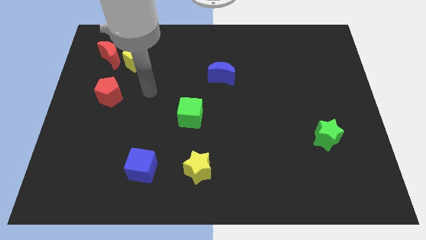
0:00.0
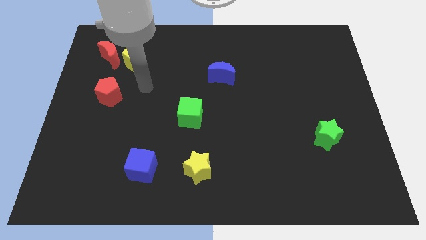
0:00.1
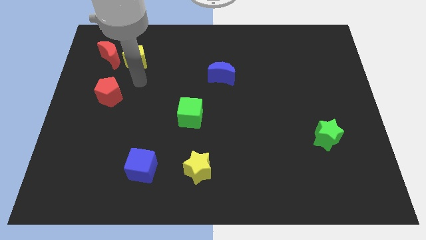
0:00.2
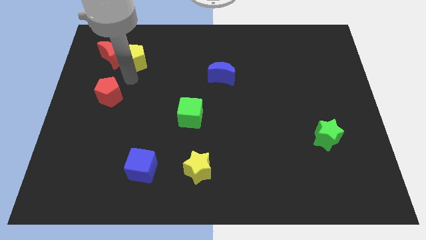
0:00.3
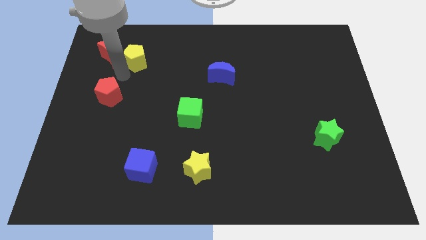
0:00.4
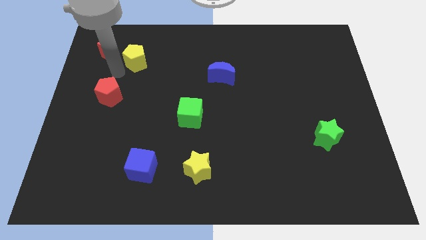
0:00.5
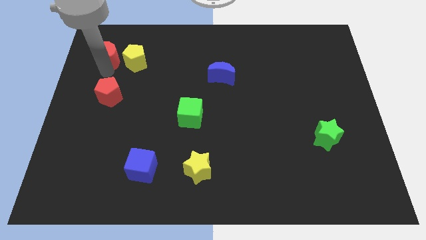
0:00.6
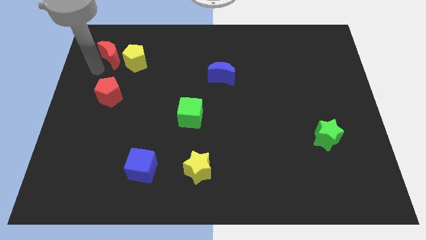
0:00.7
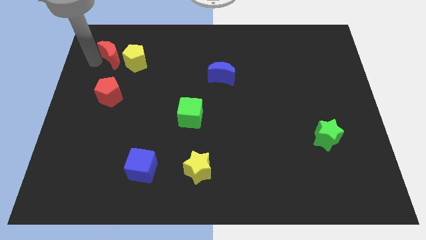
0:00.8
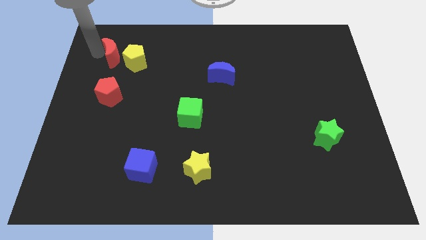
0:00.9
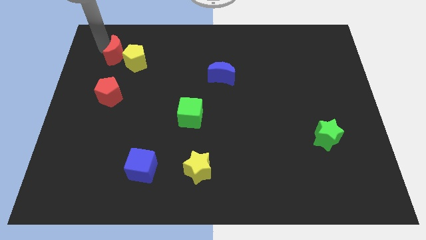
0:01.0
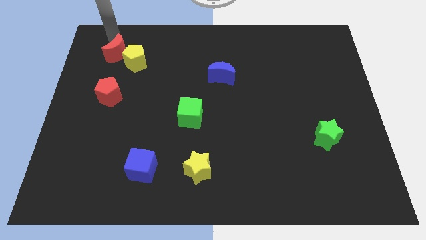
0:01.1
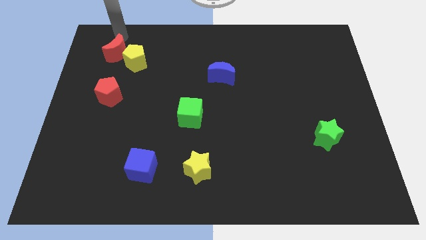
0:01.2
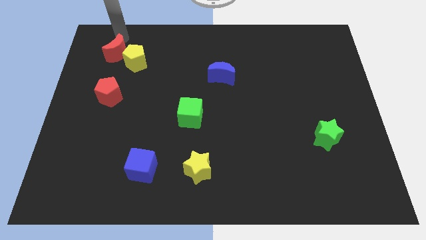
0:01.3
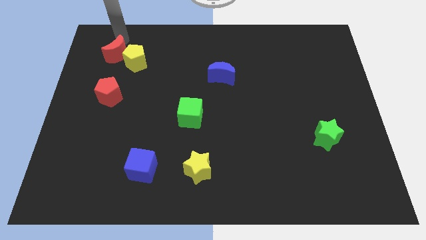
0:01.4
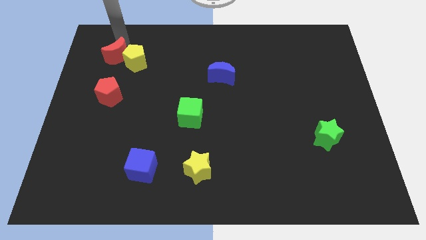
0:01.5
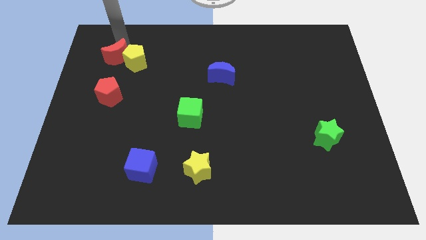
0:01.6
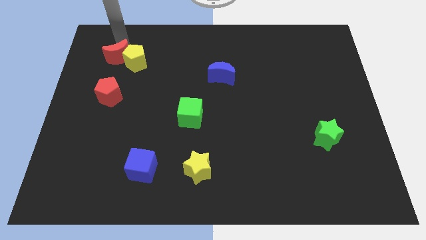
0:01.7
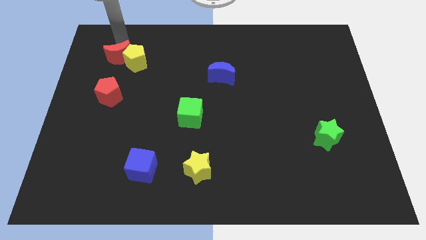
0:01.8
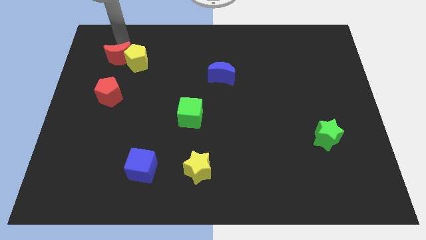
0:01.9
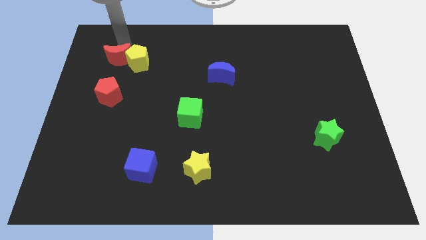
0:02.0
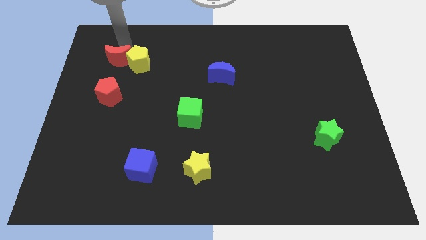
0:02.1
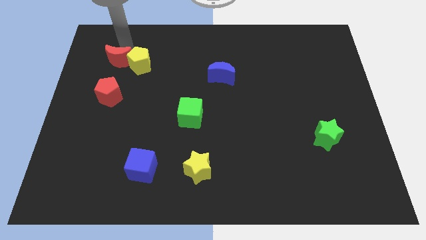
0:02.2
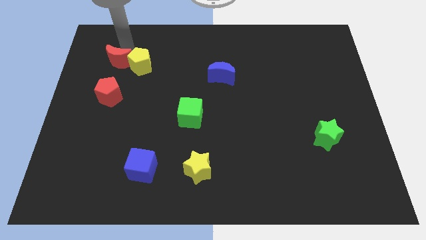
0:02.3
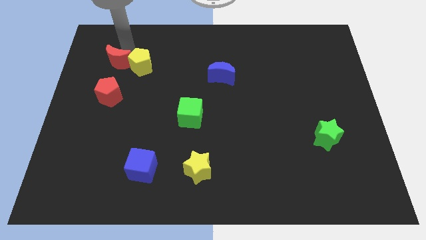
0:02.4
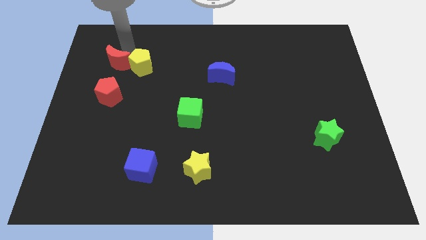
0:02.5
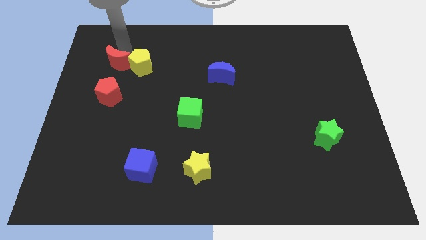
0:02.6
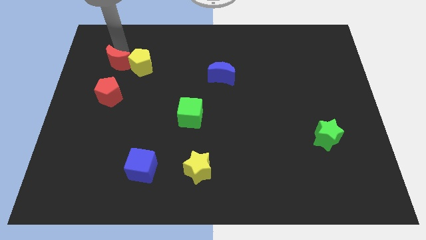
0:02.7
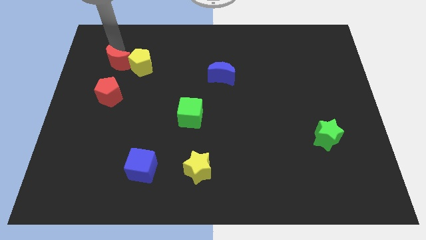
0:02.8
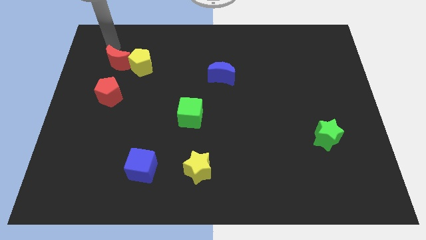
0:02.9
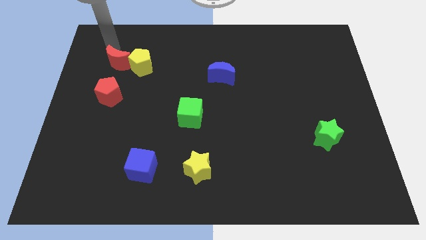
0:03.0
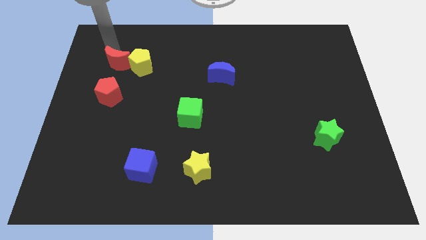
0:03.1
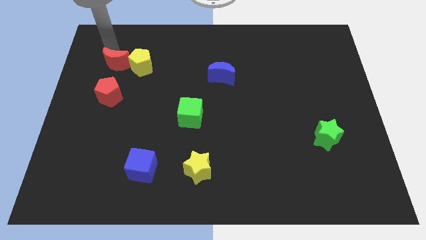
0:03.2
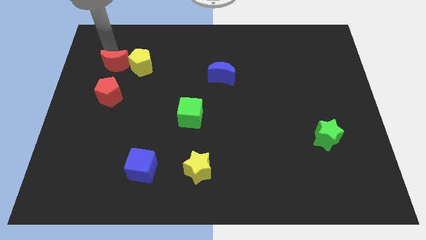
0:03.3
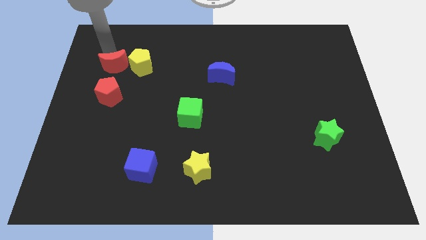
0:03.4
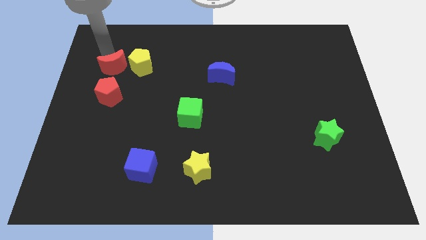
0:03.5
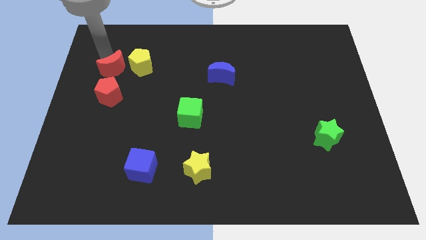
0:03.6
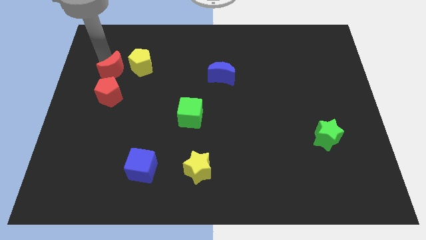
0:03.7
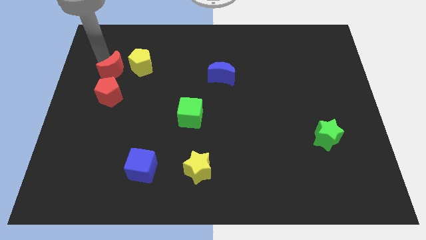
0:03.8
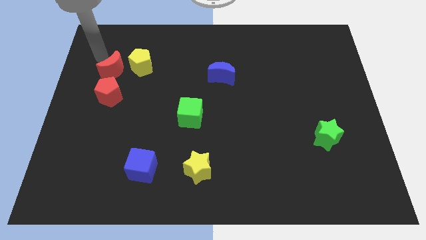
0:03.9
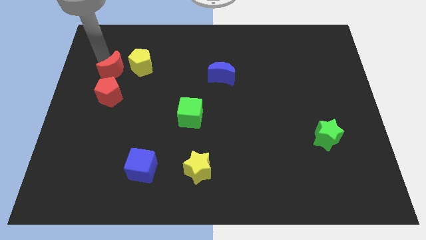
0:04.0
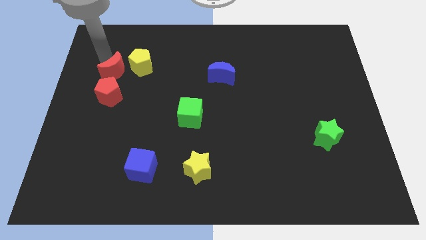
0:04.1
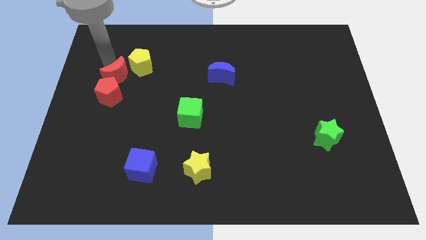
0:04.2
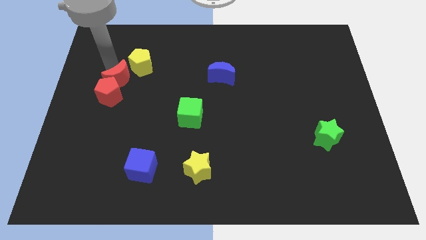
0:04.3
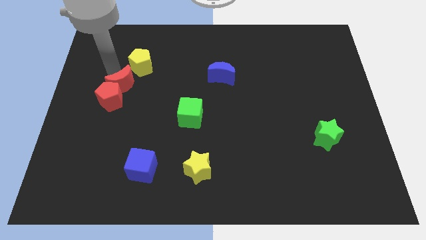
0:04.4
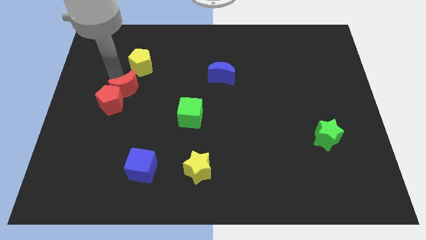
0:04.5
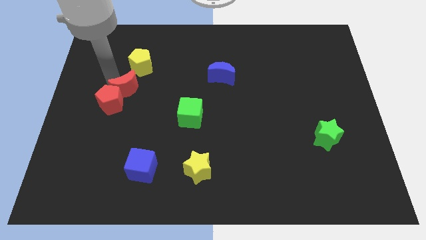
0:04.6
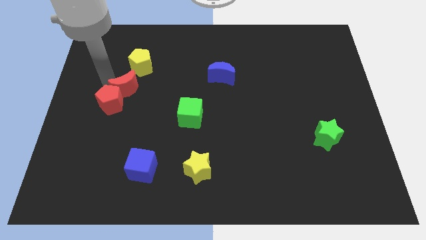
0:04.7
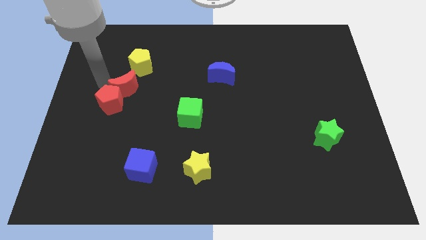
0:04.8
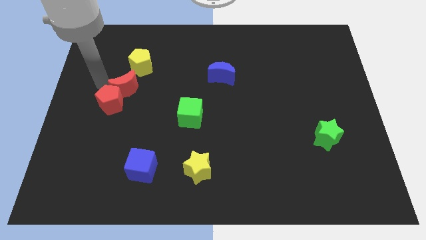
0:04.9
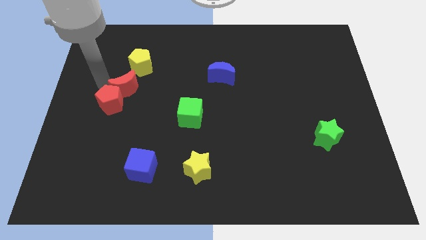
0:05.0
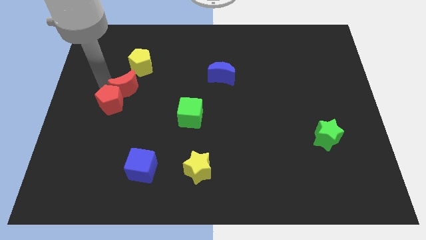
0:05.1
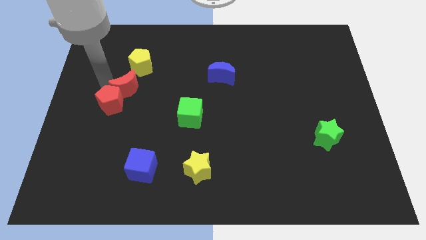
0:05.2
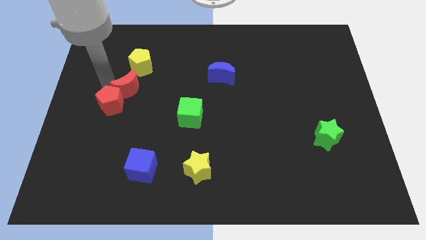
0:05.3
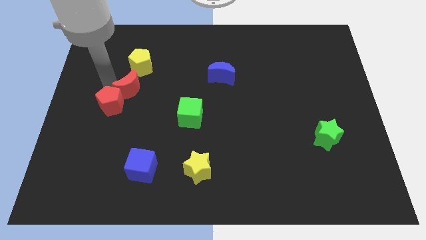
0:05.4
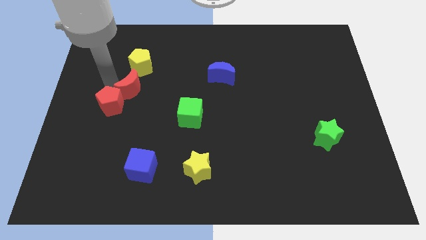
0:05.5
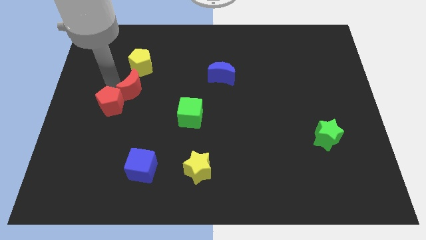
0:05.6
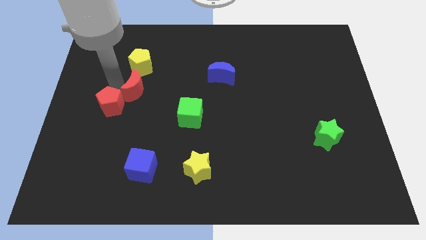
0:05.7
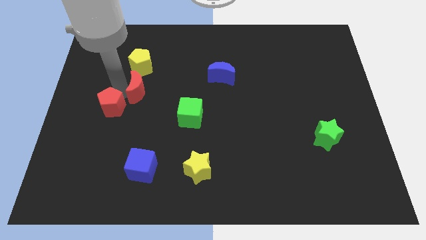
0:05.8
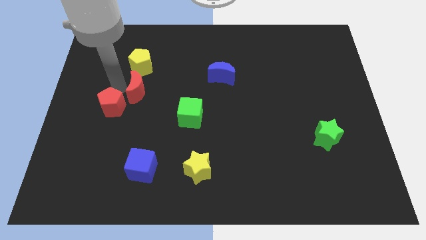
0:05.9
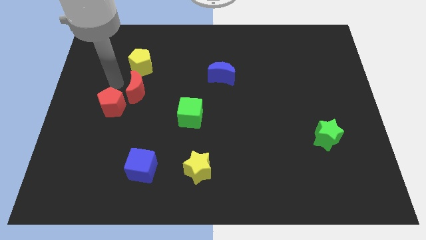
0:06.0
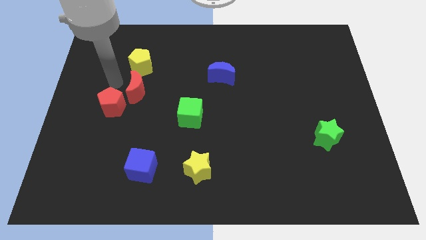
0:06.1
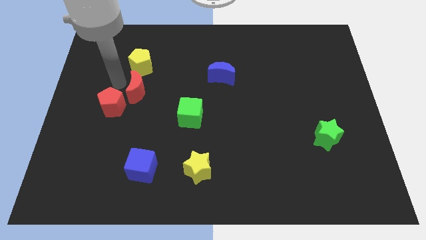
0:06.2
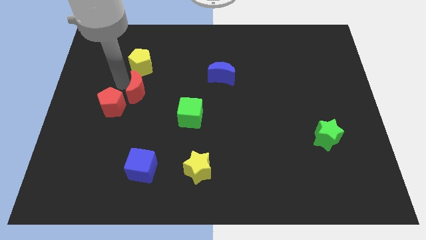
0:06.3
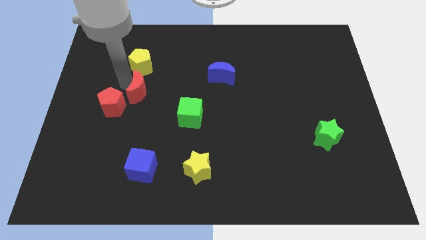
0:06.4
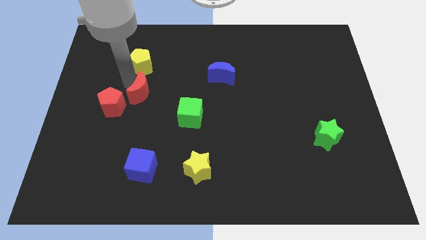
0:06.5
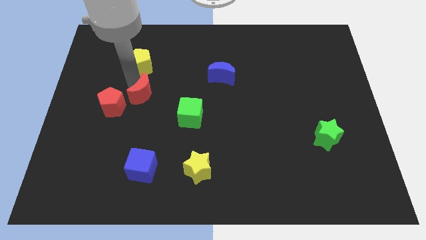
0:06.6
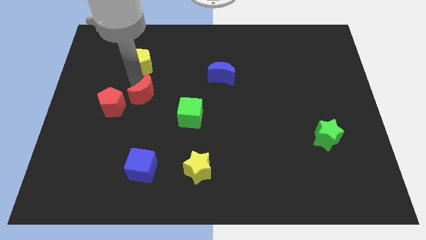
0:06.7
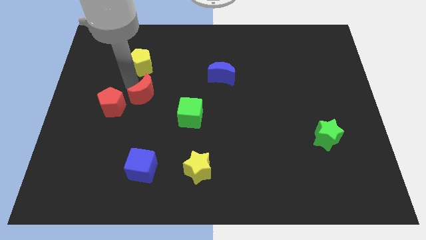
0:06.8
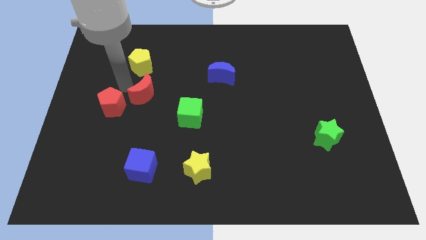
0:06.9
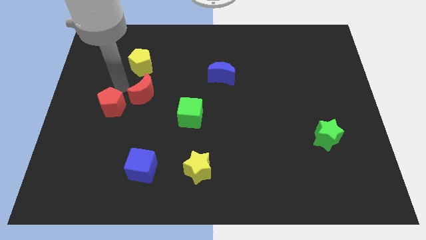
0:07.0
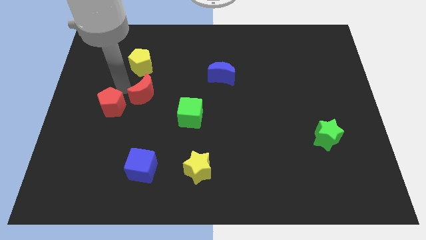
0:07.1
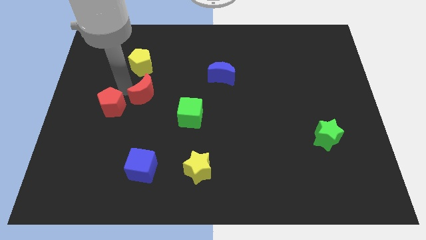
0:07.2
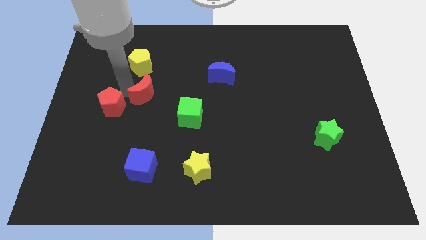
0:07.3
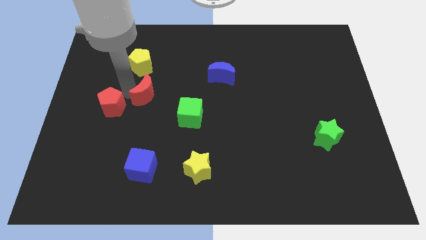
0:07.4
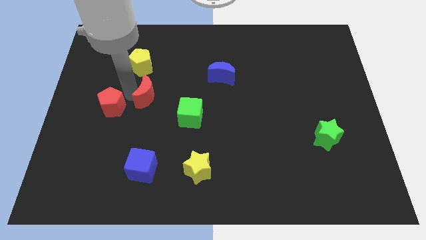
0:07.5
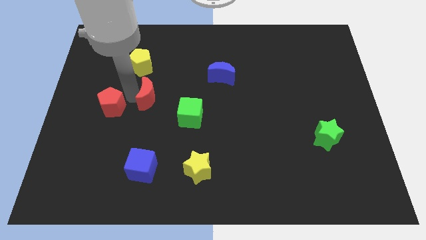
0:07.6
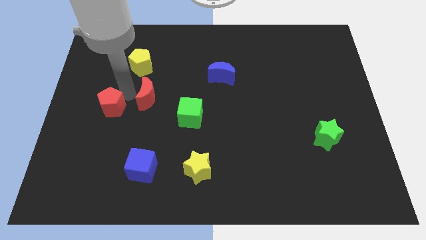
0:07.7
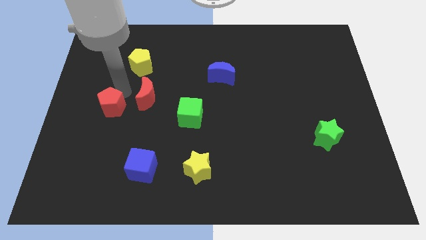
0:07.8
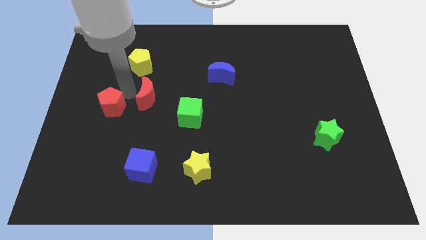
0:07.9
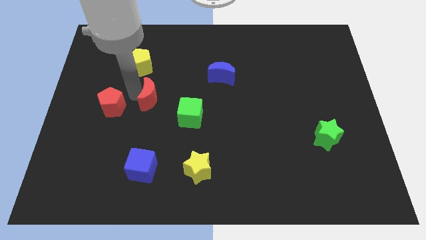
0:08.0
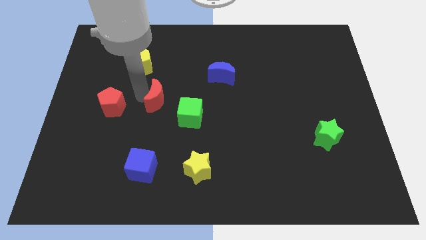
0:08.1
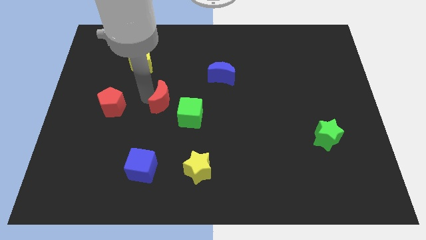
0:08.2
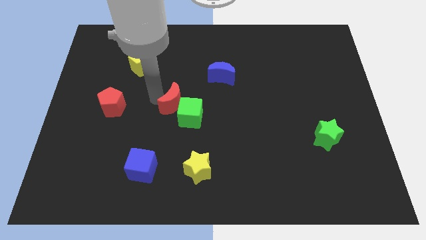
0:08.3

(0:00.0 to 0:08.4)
slide the red moon towards the green cube
